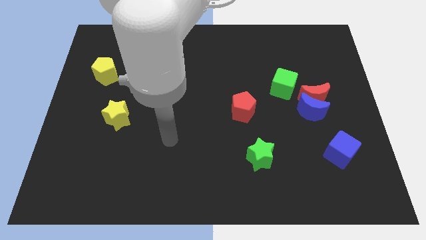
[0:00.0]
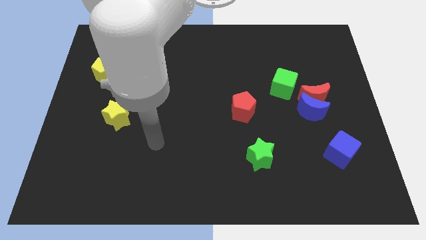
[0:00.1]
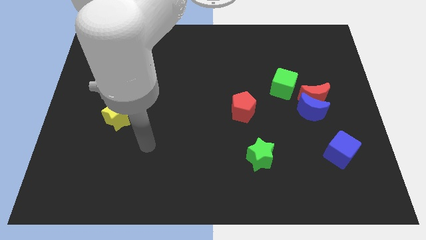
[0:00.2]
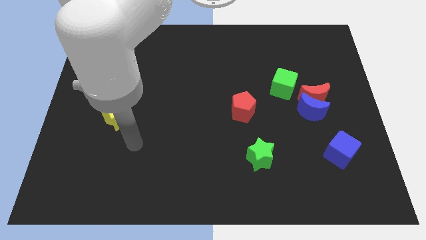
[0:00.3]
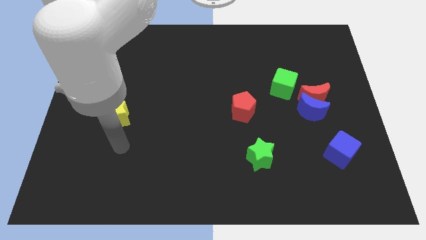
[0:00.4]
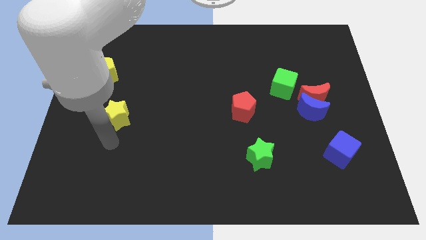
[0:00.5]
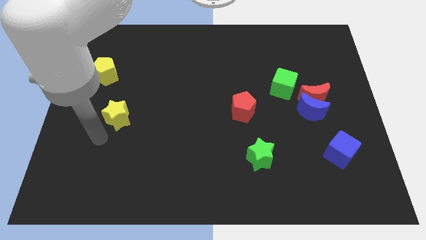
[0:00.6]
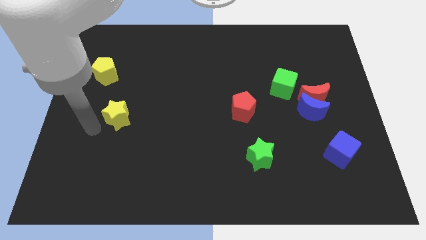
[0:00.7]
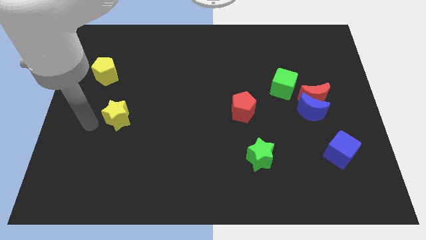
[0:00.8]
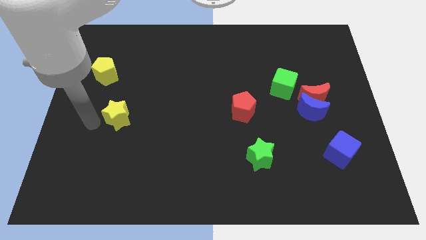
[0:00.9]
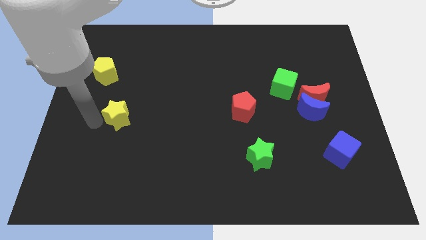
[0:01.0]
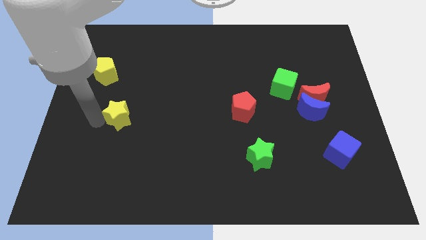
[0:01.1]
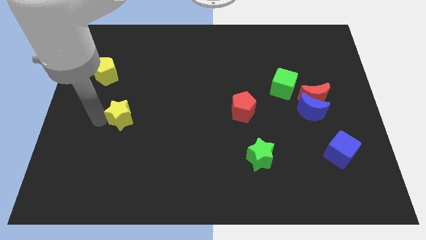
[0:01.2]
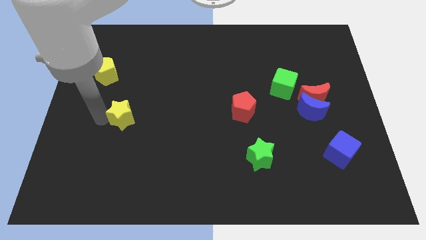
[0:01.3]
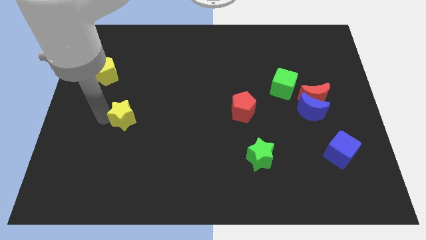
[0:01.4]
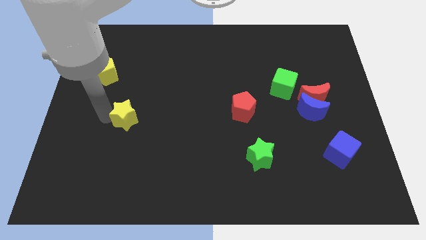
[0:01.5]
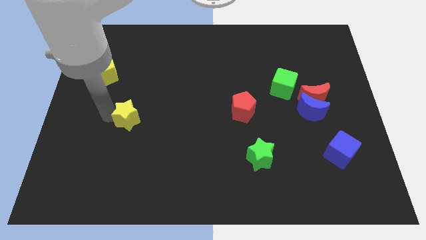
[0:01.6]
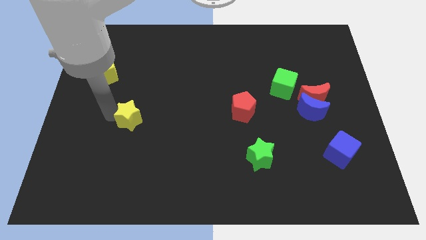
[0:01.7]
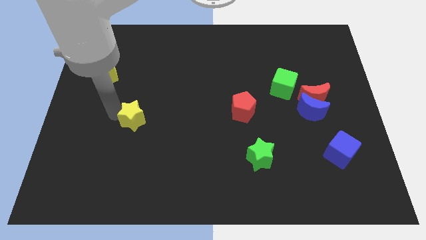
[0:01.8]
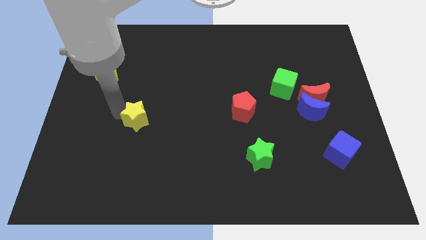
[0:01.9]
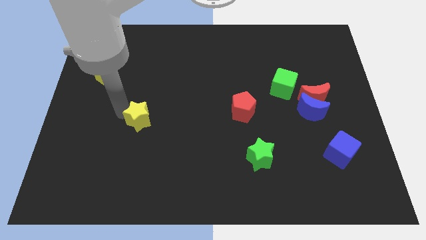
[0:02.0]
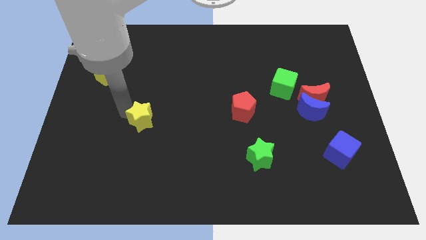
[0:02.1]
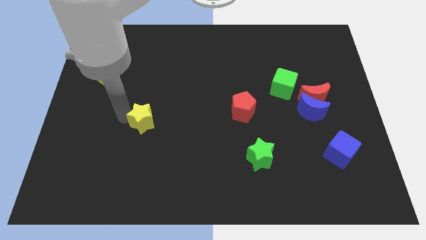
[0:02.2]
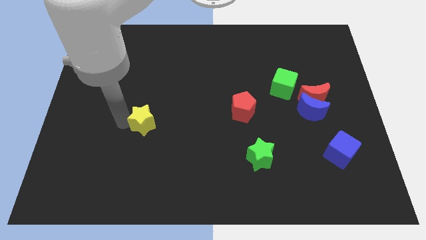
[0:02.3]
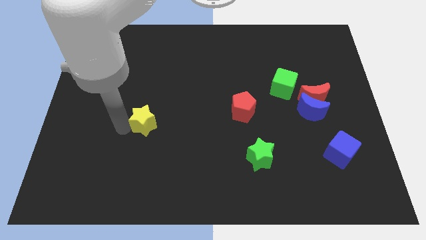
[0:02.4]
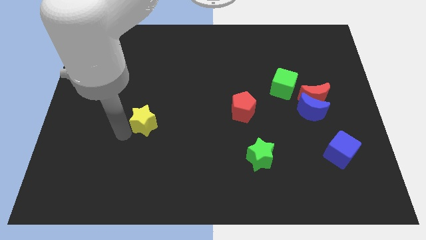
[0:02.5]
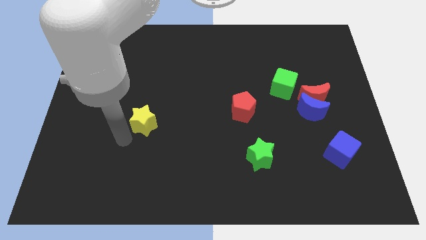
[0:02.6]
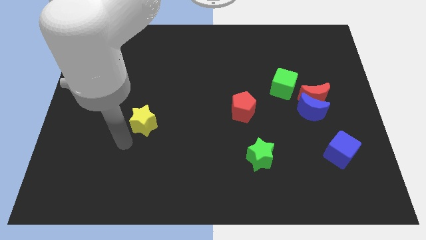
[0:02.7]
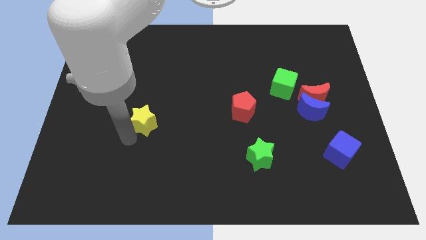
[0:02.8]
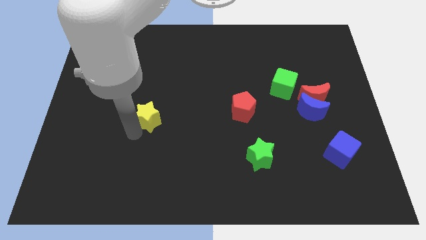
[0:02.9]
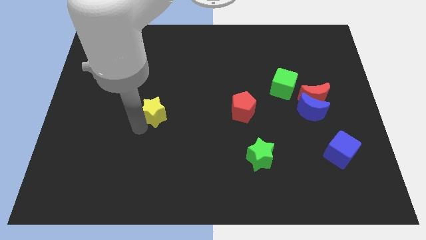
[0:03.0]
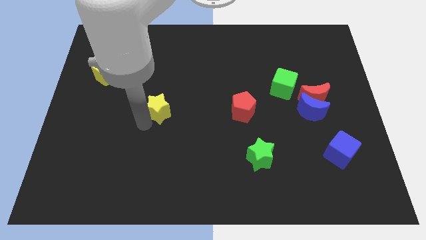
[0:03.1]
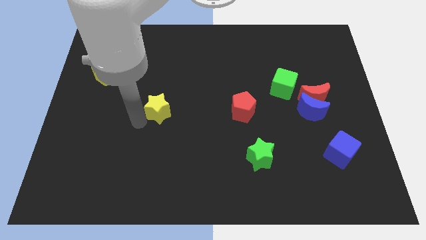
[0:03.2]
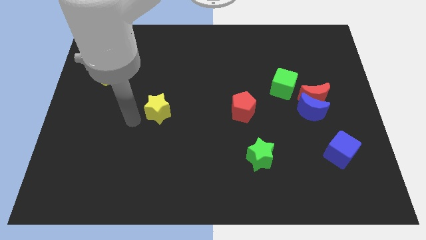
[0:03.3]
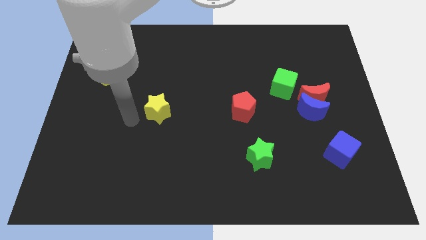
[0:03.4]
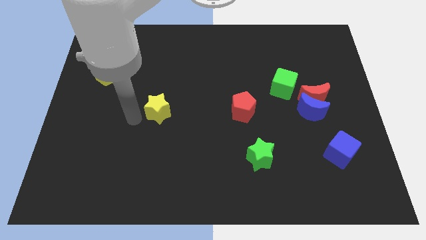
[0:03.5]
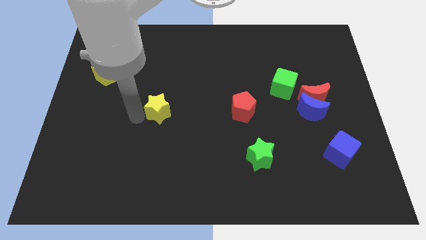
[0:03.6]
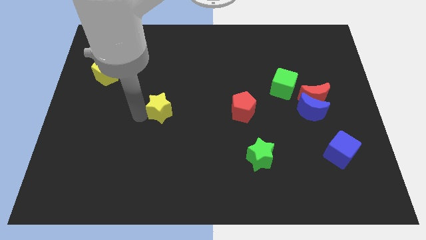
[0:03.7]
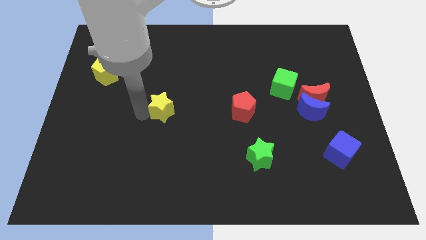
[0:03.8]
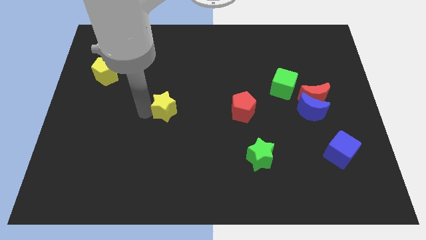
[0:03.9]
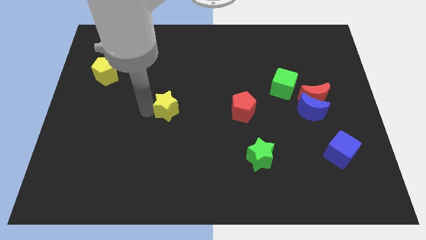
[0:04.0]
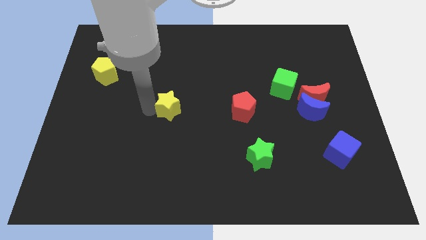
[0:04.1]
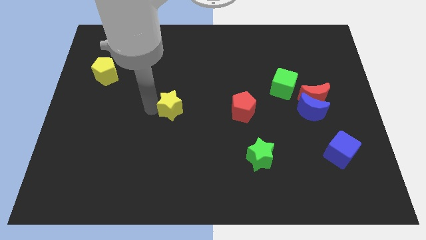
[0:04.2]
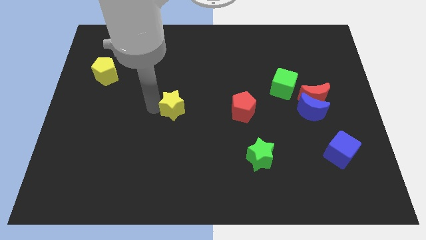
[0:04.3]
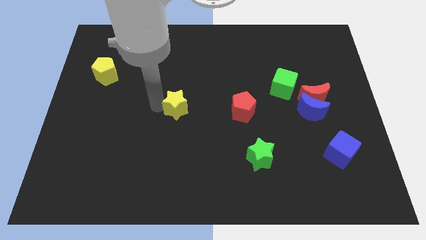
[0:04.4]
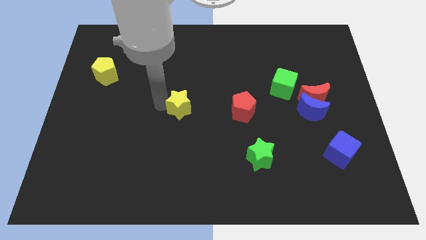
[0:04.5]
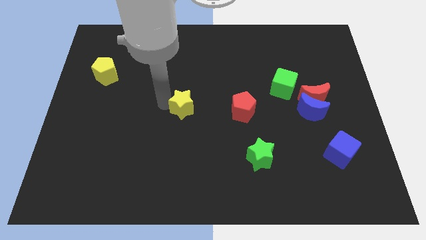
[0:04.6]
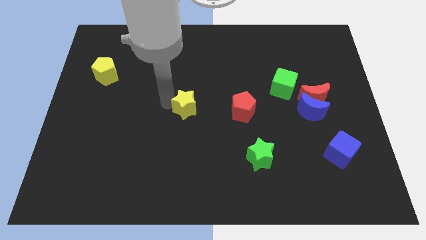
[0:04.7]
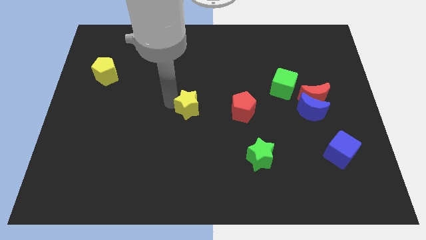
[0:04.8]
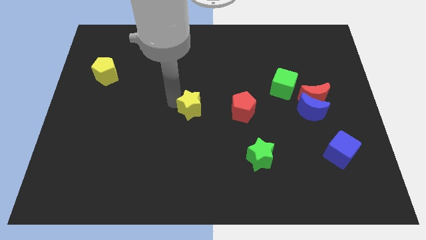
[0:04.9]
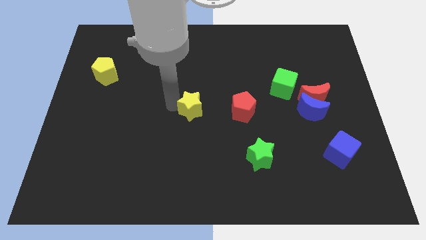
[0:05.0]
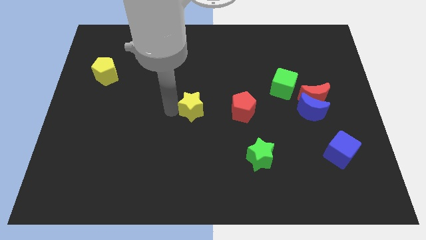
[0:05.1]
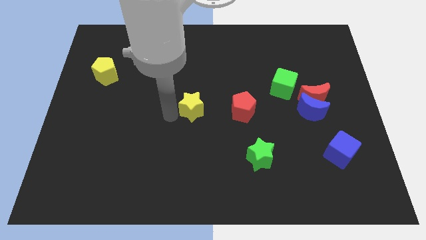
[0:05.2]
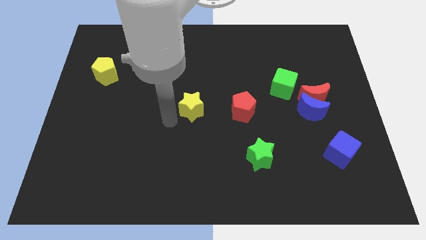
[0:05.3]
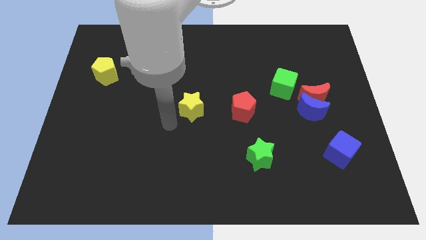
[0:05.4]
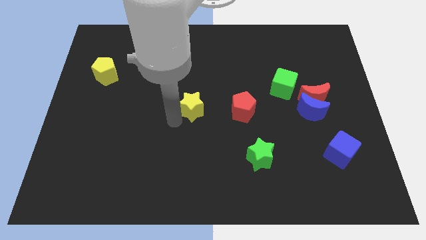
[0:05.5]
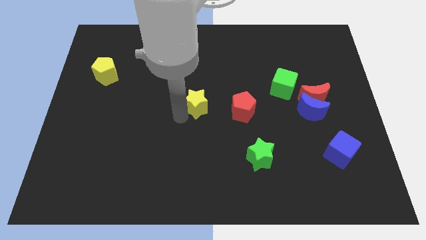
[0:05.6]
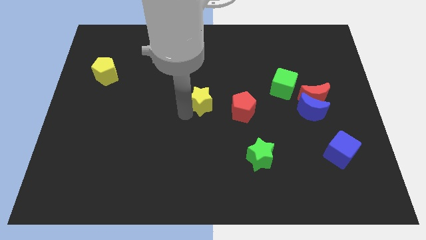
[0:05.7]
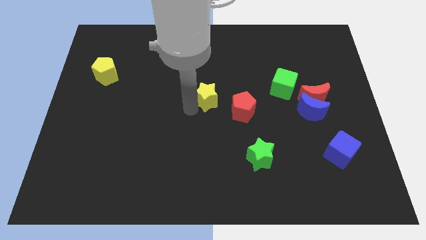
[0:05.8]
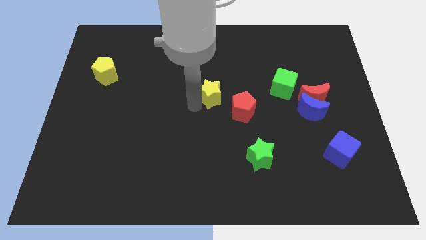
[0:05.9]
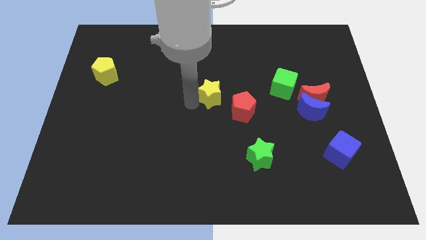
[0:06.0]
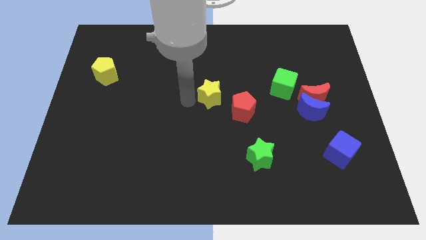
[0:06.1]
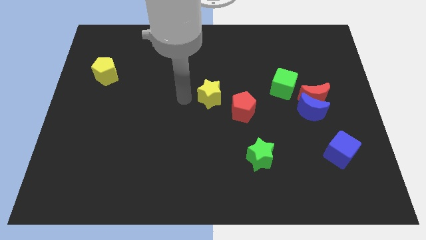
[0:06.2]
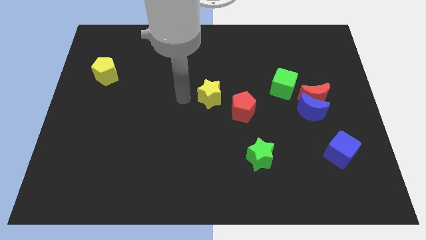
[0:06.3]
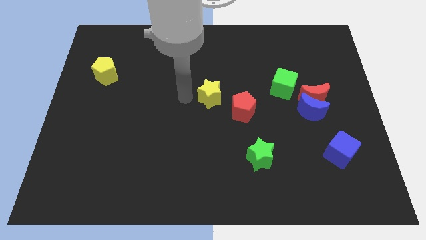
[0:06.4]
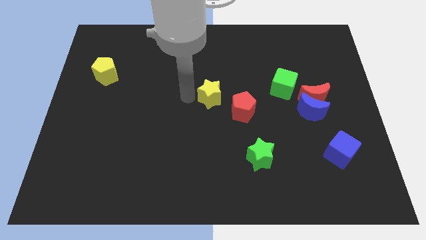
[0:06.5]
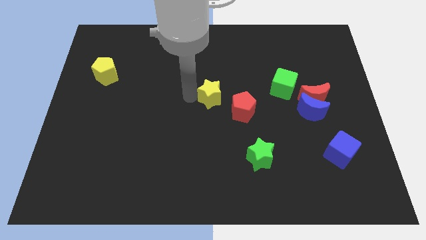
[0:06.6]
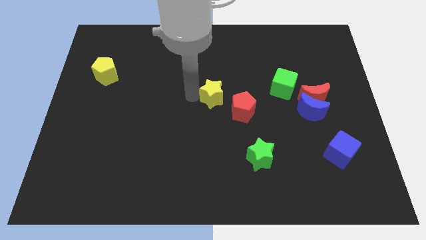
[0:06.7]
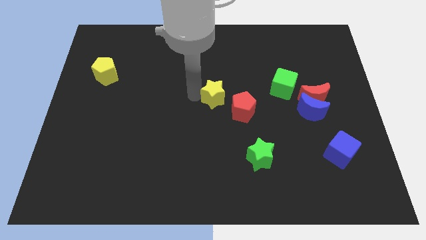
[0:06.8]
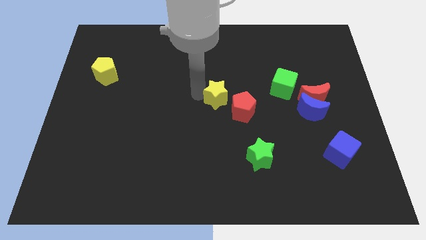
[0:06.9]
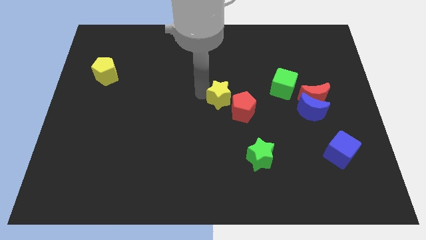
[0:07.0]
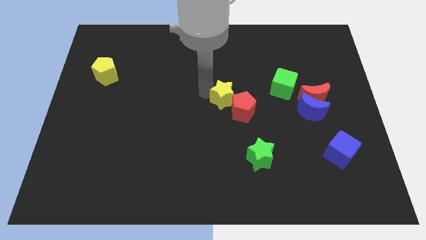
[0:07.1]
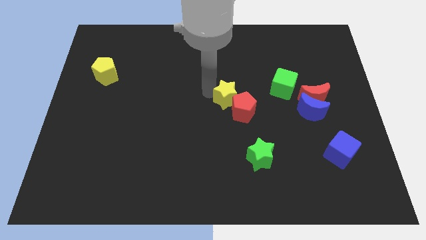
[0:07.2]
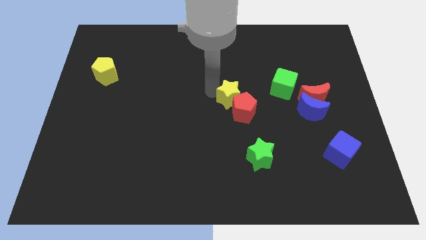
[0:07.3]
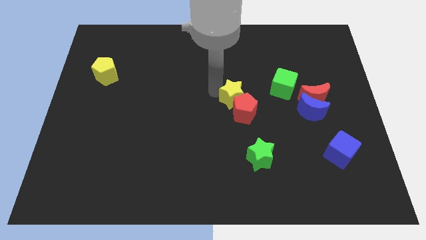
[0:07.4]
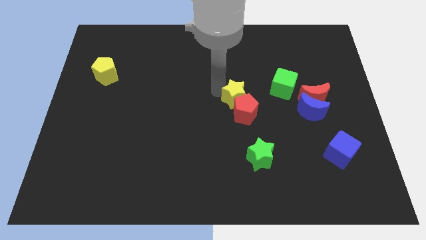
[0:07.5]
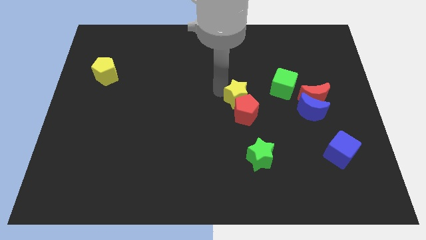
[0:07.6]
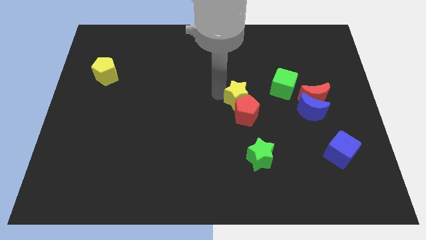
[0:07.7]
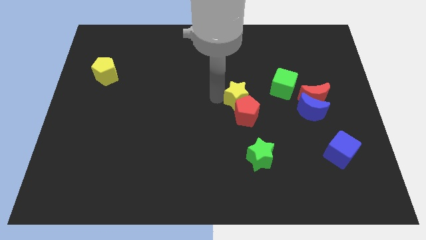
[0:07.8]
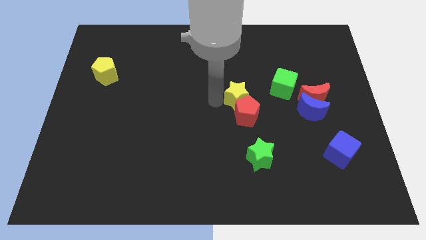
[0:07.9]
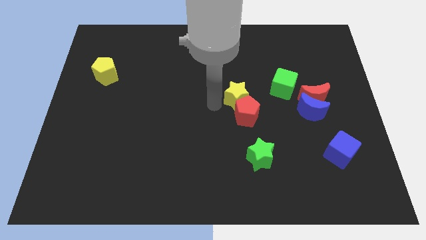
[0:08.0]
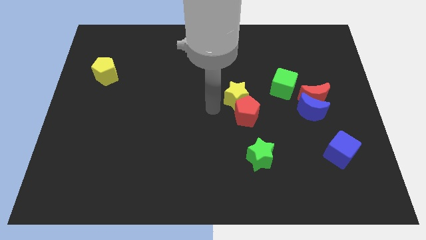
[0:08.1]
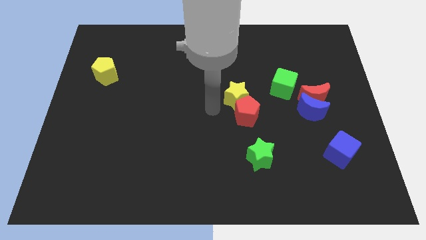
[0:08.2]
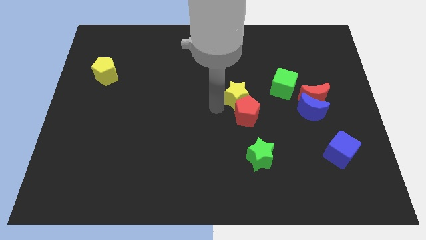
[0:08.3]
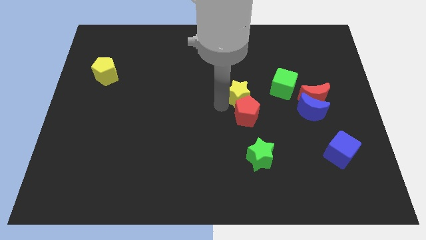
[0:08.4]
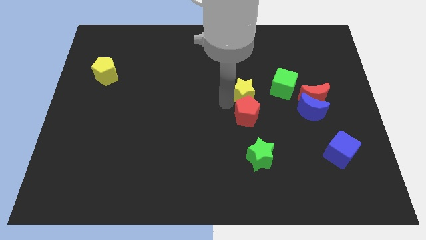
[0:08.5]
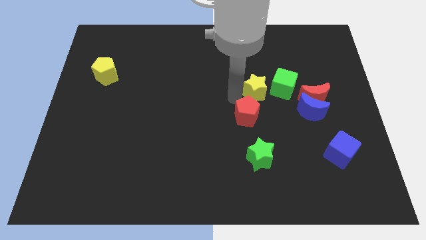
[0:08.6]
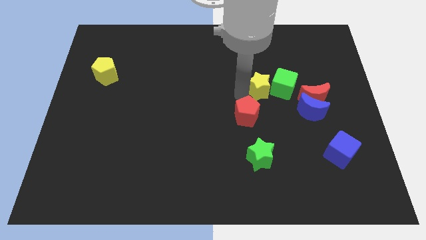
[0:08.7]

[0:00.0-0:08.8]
move the yellow star to the green cube
